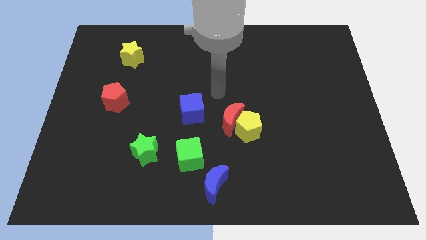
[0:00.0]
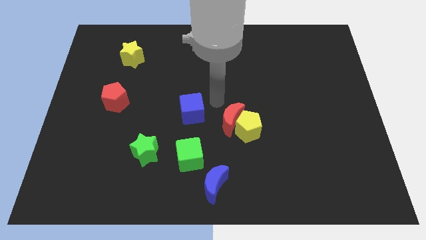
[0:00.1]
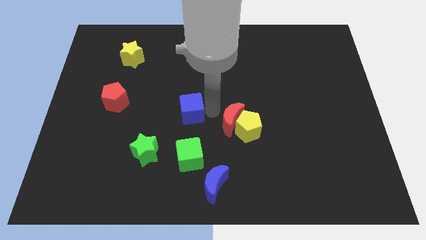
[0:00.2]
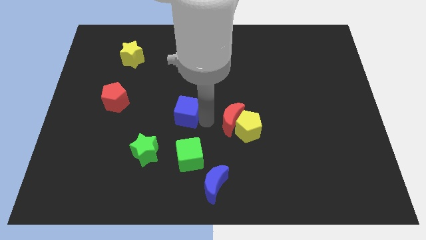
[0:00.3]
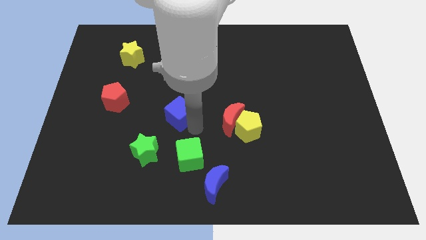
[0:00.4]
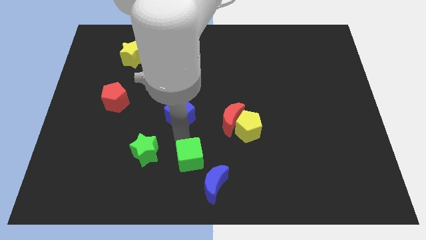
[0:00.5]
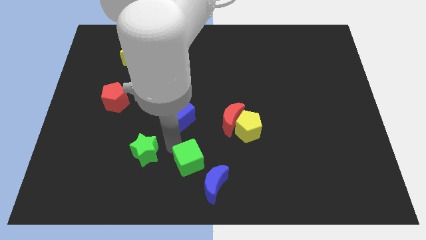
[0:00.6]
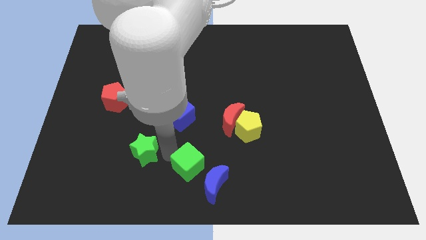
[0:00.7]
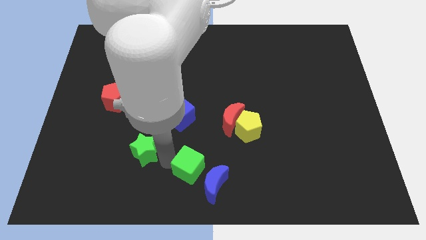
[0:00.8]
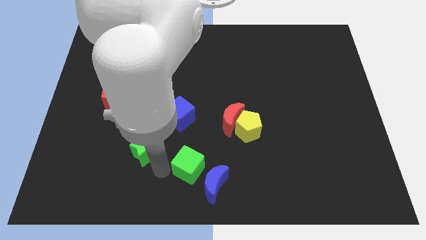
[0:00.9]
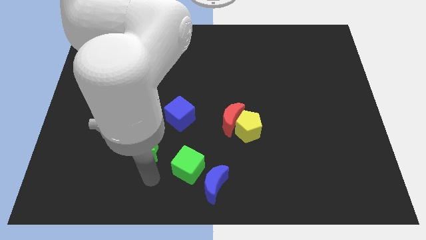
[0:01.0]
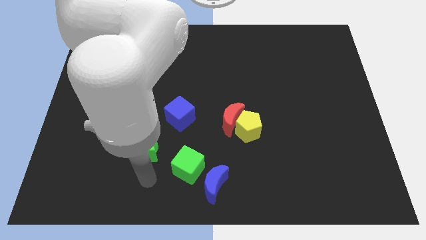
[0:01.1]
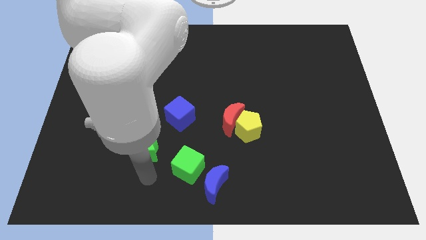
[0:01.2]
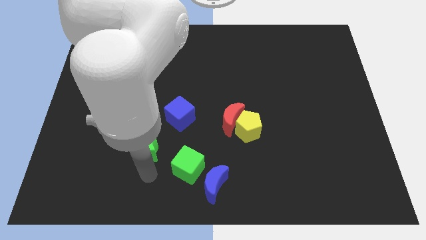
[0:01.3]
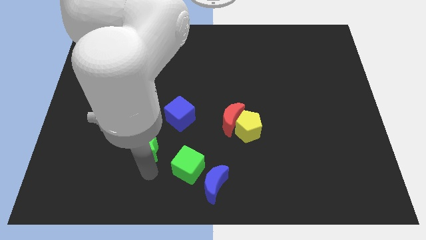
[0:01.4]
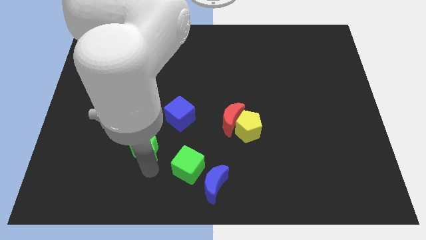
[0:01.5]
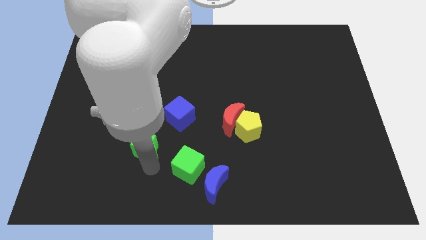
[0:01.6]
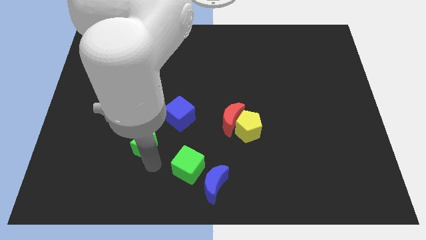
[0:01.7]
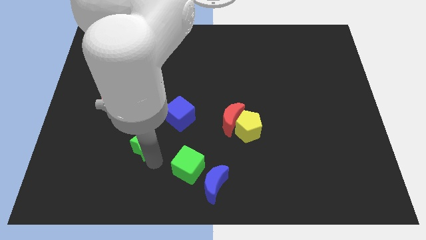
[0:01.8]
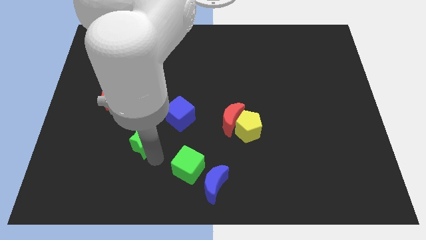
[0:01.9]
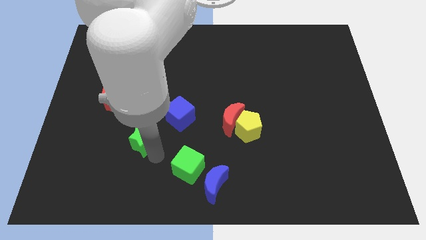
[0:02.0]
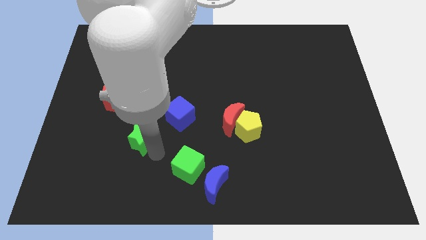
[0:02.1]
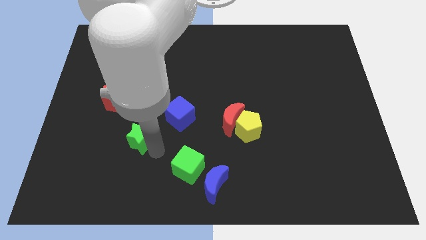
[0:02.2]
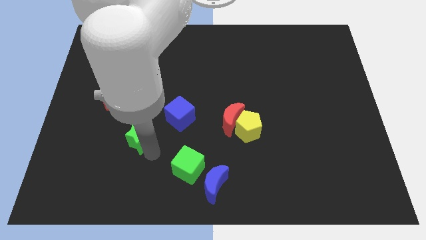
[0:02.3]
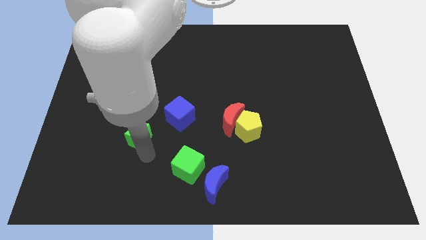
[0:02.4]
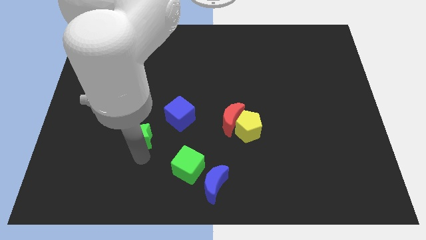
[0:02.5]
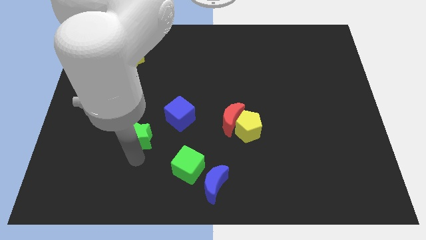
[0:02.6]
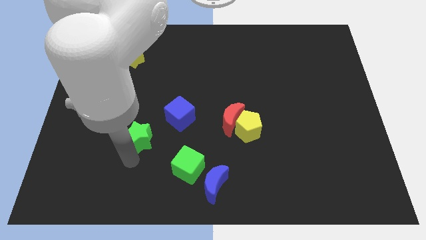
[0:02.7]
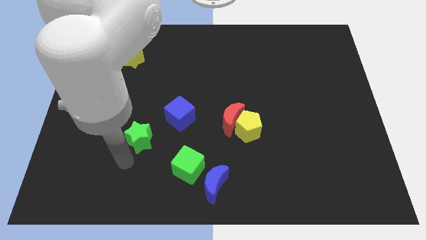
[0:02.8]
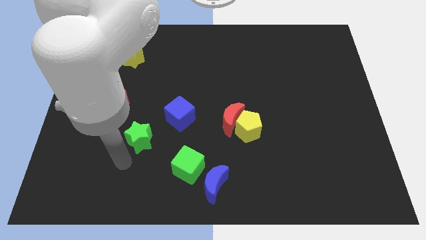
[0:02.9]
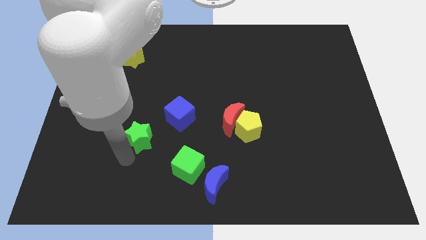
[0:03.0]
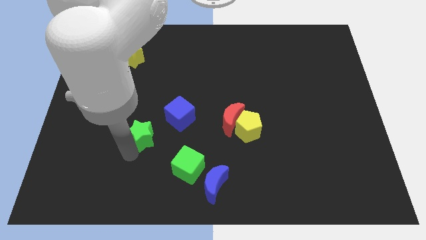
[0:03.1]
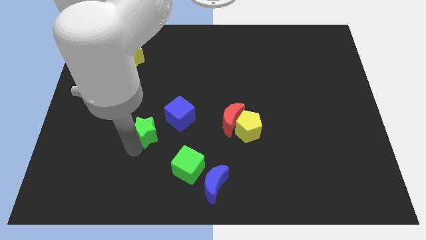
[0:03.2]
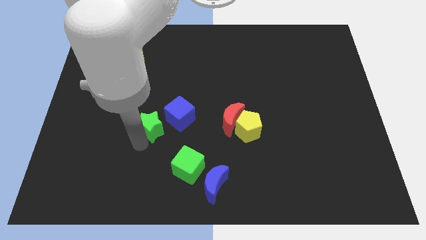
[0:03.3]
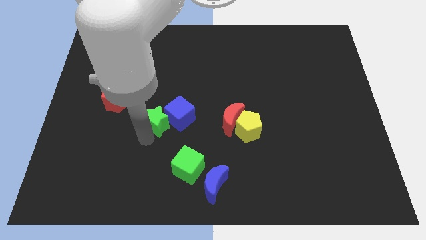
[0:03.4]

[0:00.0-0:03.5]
move the green star a little up

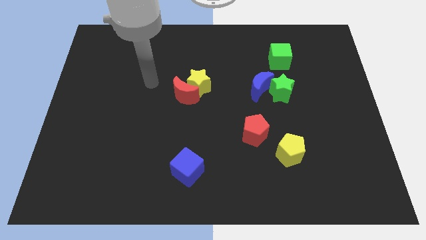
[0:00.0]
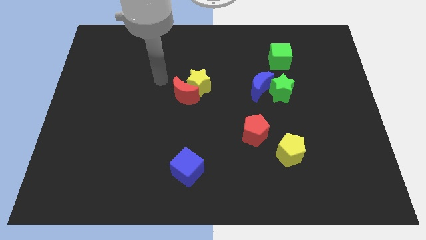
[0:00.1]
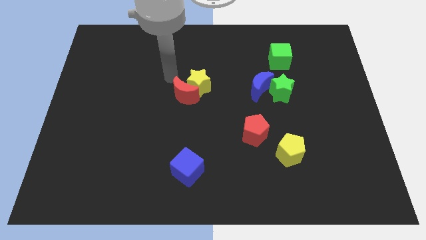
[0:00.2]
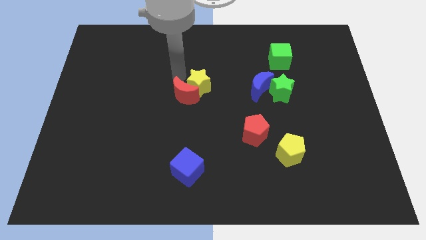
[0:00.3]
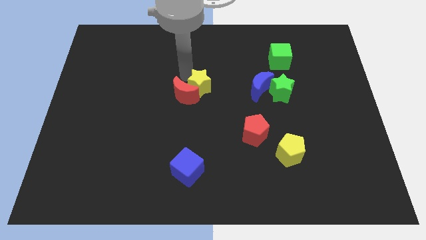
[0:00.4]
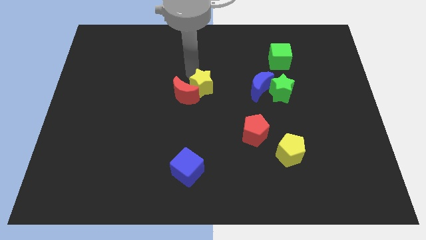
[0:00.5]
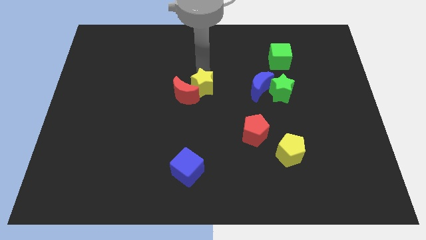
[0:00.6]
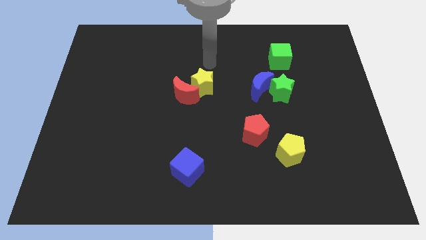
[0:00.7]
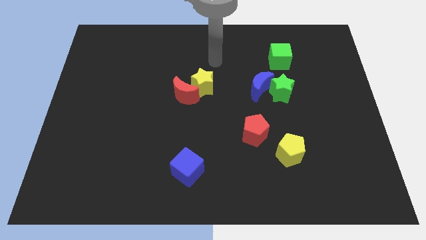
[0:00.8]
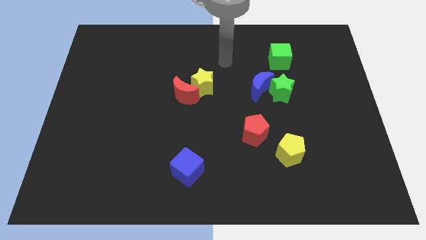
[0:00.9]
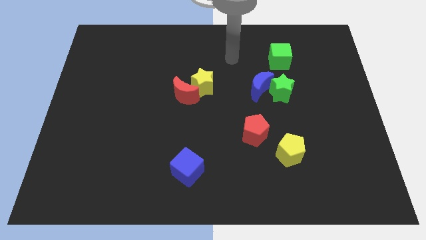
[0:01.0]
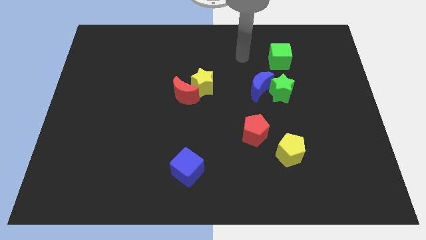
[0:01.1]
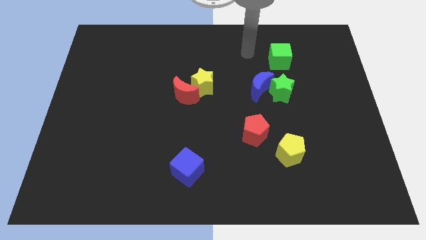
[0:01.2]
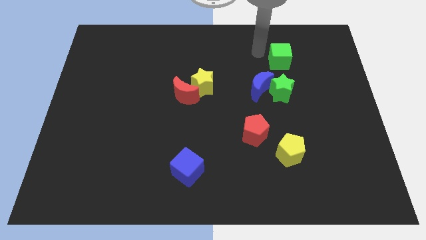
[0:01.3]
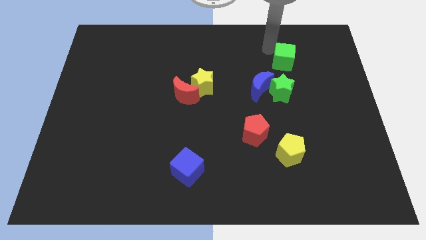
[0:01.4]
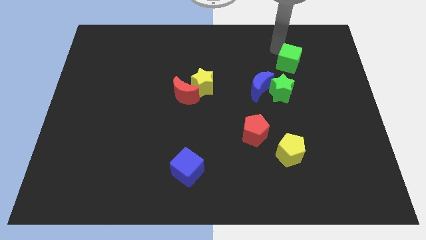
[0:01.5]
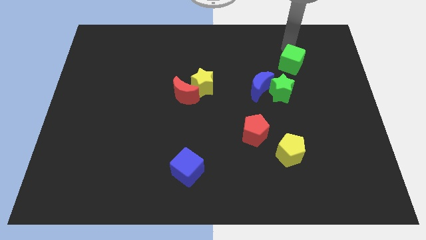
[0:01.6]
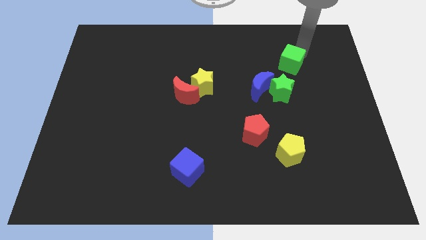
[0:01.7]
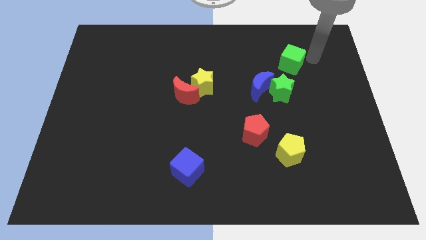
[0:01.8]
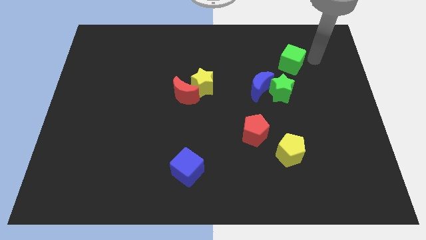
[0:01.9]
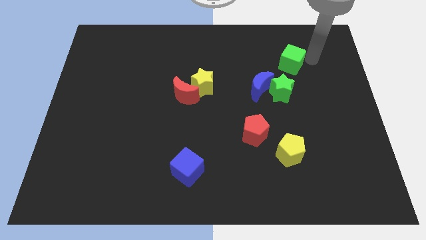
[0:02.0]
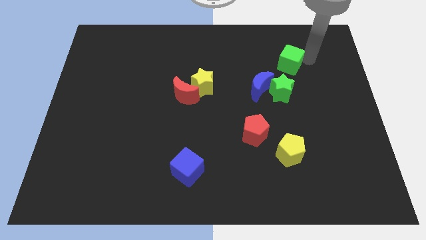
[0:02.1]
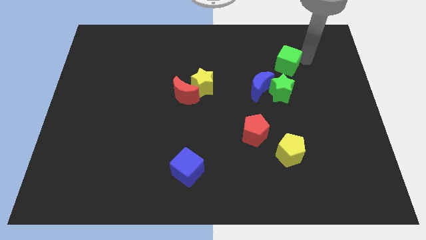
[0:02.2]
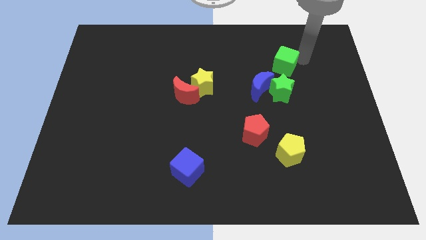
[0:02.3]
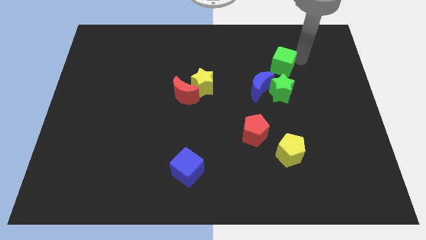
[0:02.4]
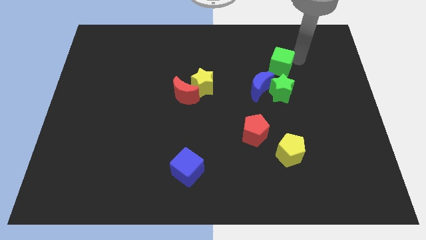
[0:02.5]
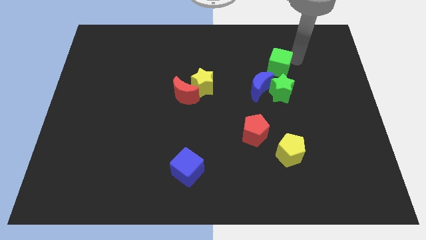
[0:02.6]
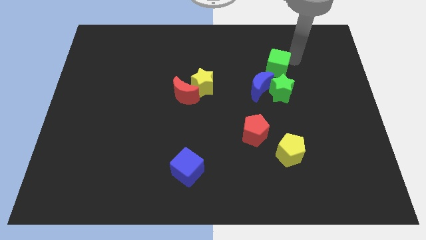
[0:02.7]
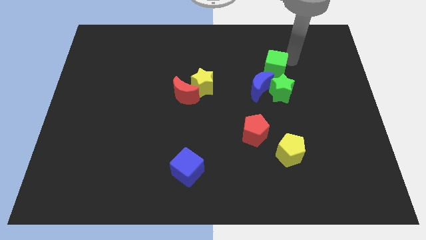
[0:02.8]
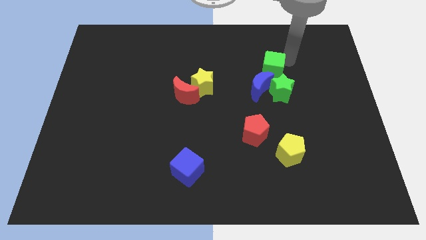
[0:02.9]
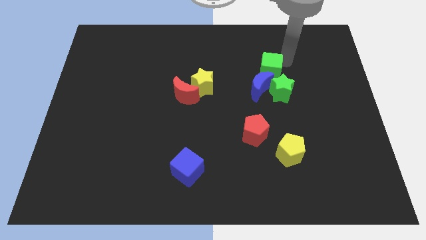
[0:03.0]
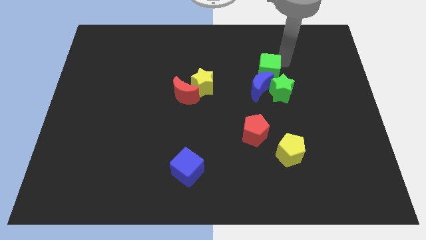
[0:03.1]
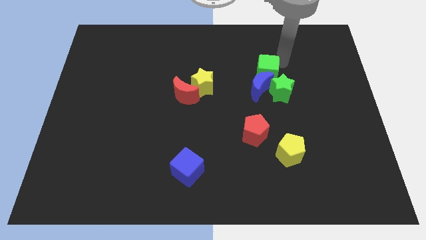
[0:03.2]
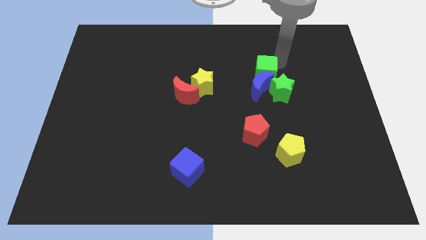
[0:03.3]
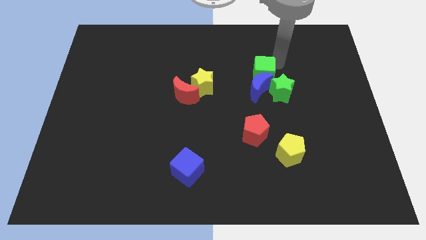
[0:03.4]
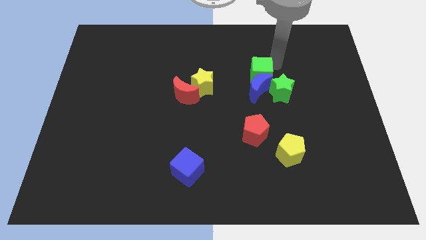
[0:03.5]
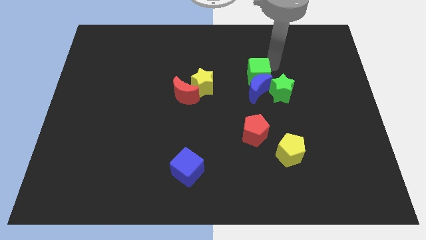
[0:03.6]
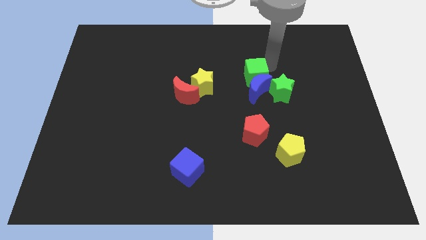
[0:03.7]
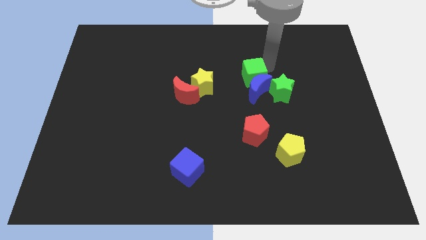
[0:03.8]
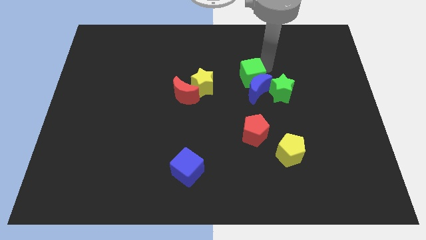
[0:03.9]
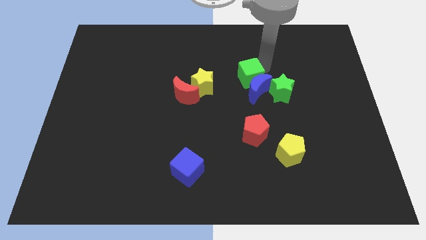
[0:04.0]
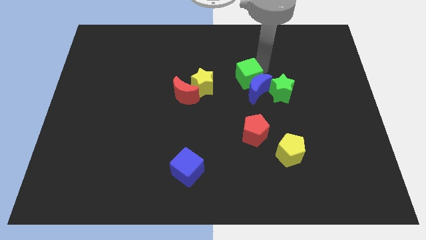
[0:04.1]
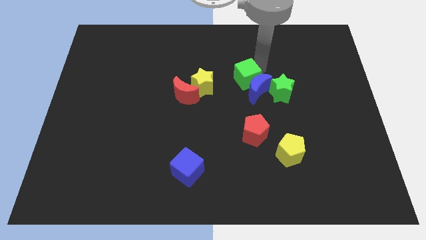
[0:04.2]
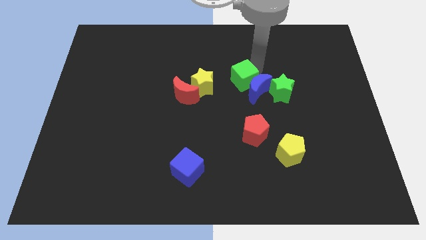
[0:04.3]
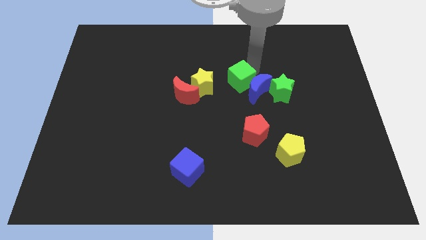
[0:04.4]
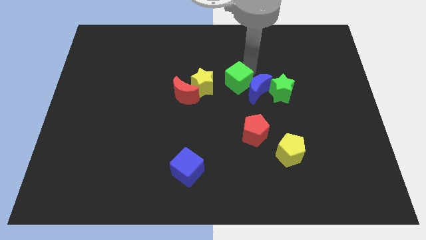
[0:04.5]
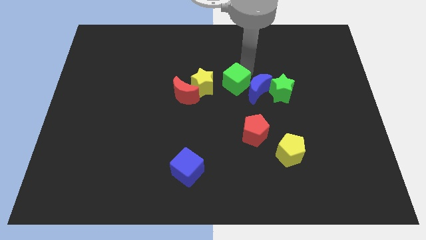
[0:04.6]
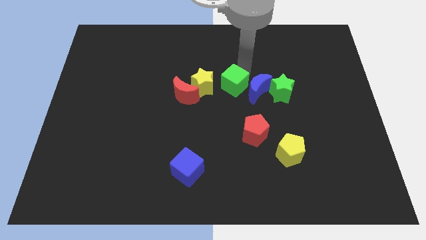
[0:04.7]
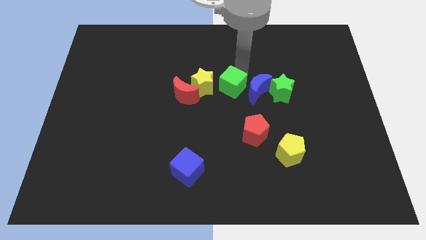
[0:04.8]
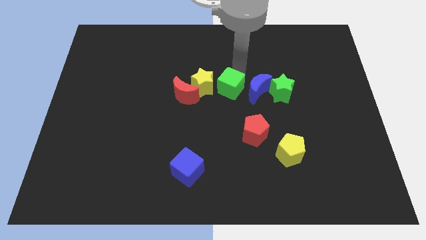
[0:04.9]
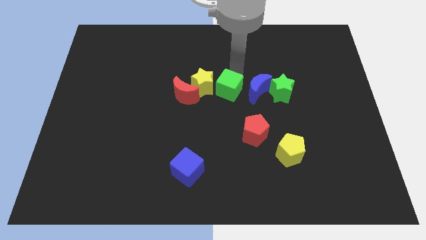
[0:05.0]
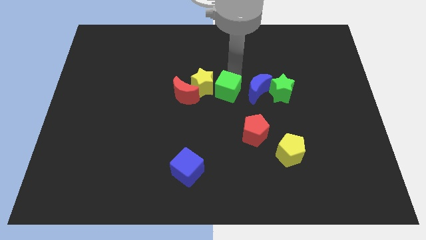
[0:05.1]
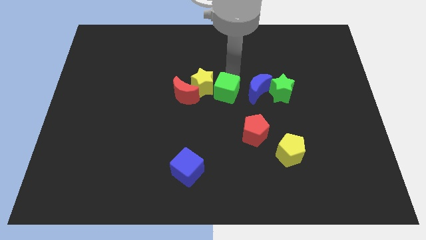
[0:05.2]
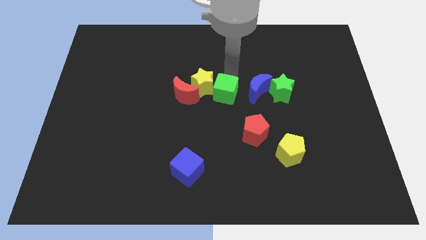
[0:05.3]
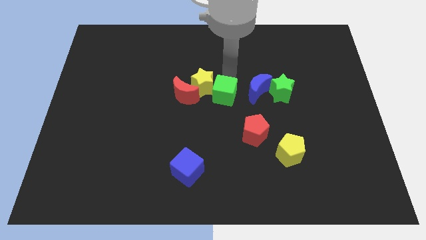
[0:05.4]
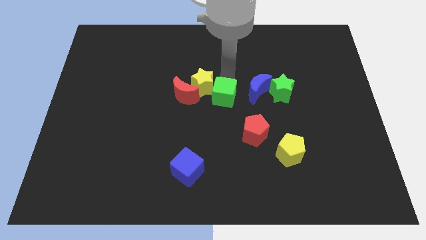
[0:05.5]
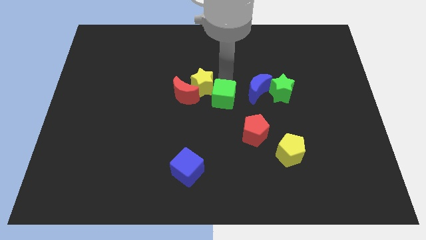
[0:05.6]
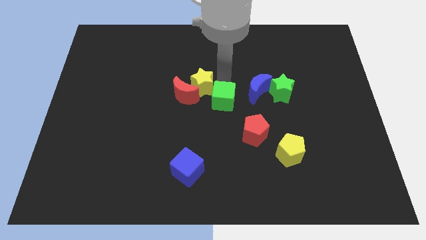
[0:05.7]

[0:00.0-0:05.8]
push the green cube down and then left
